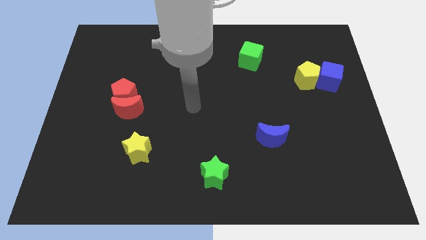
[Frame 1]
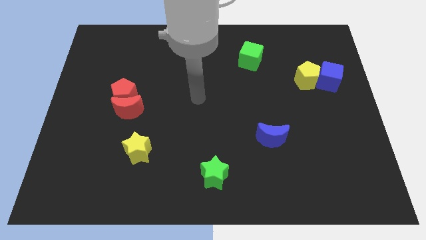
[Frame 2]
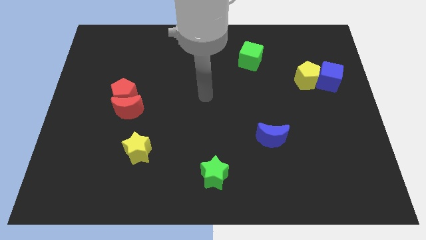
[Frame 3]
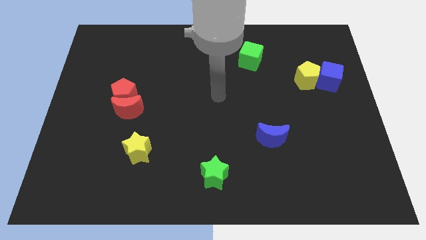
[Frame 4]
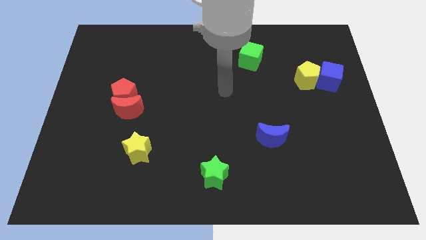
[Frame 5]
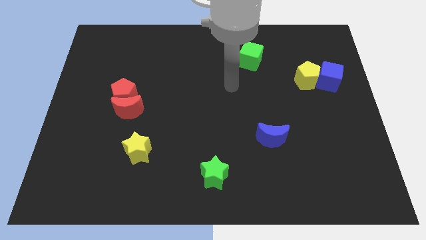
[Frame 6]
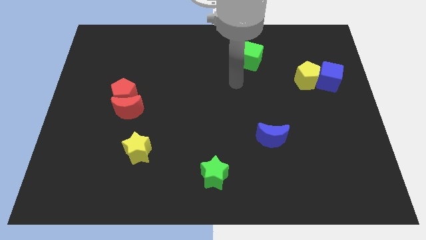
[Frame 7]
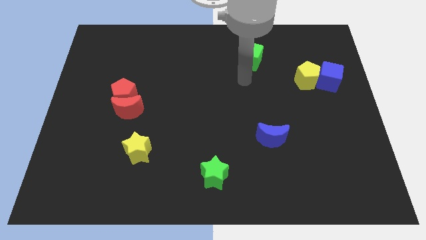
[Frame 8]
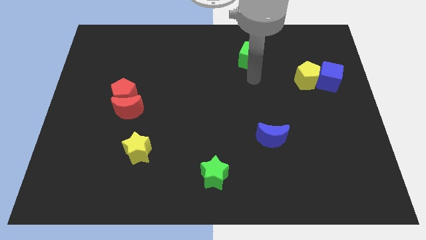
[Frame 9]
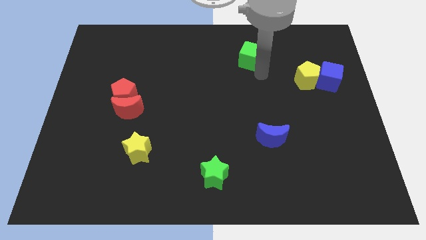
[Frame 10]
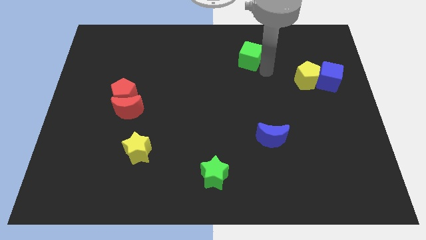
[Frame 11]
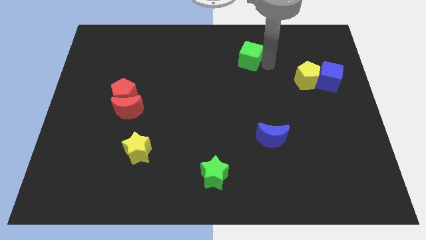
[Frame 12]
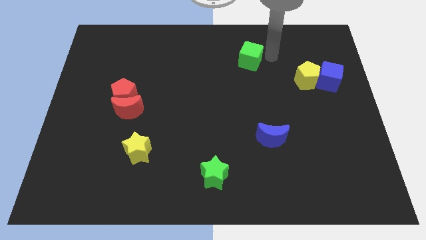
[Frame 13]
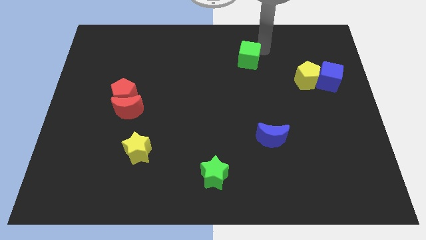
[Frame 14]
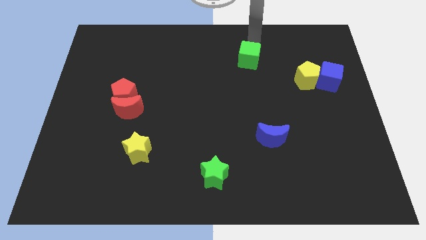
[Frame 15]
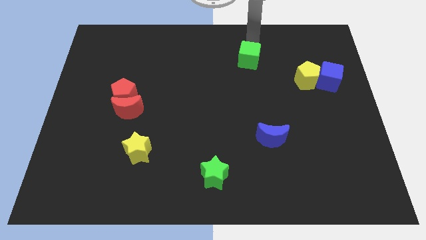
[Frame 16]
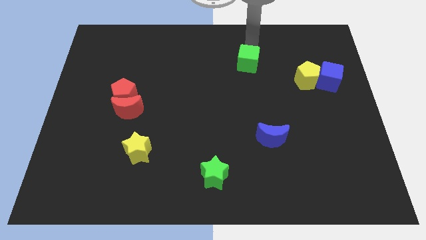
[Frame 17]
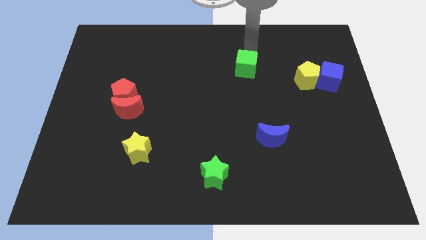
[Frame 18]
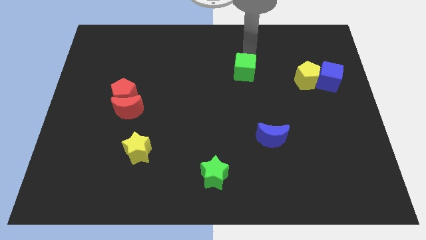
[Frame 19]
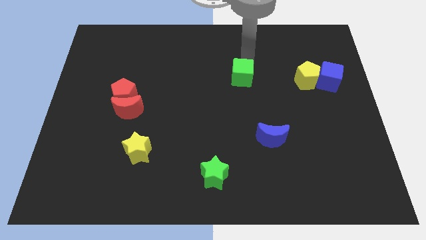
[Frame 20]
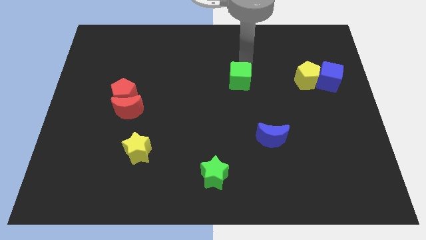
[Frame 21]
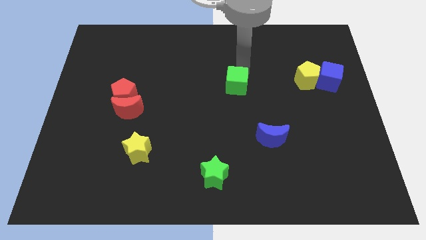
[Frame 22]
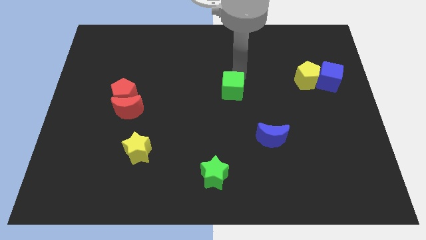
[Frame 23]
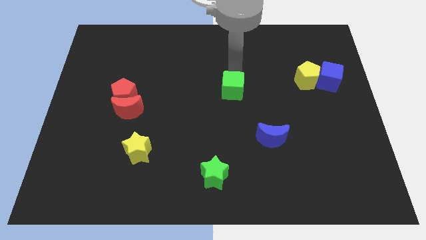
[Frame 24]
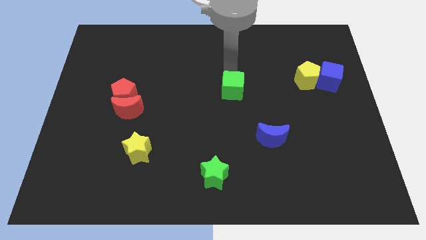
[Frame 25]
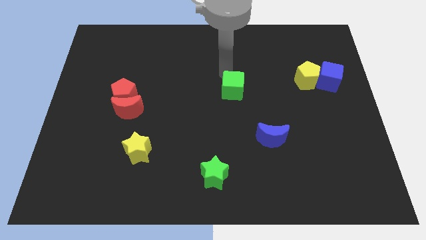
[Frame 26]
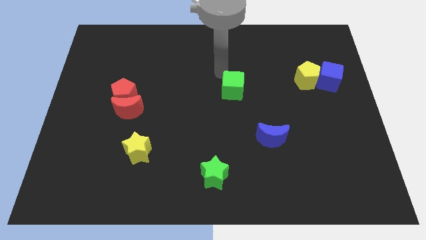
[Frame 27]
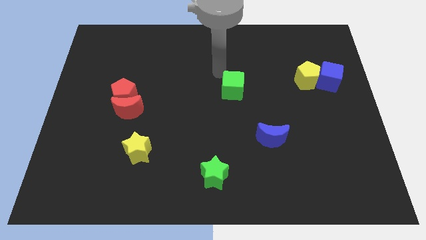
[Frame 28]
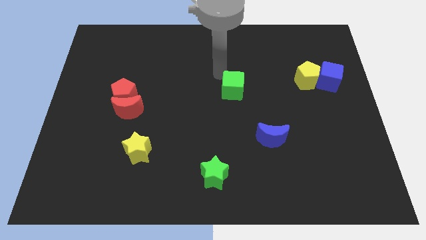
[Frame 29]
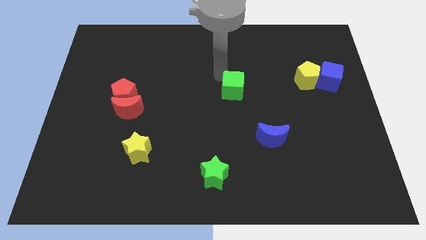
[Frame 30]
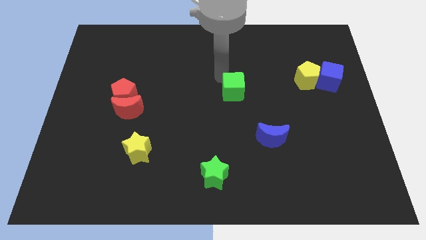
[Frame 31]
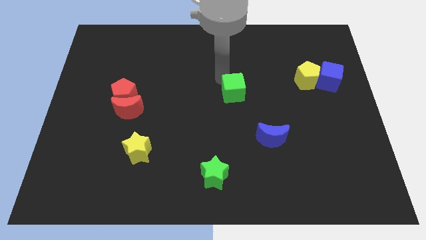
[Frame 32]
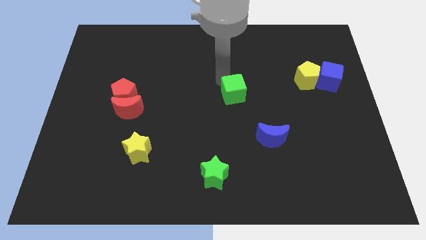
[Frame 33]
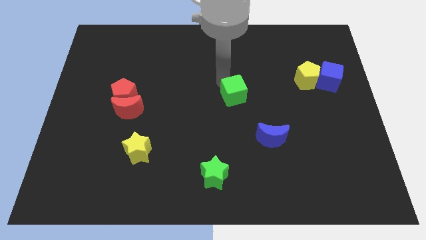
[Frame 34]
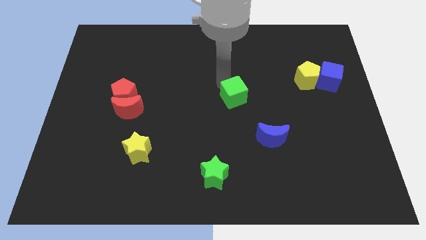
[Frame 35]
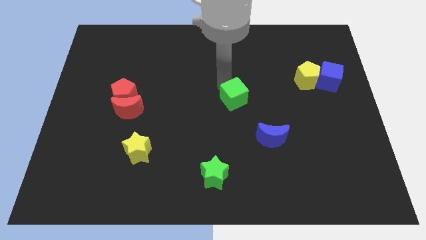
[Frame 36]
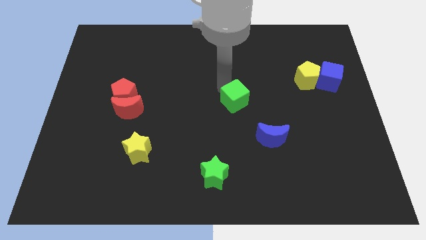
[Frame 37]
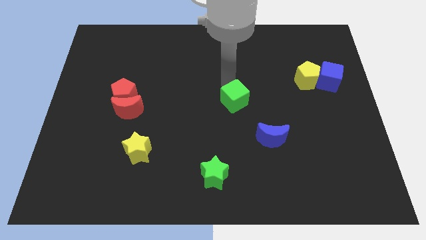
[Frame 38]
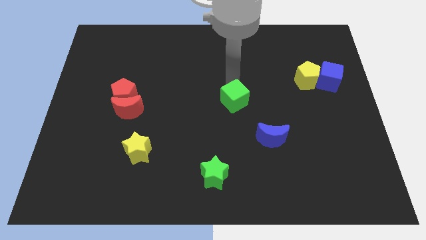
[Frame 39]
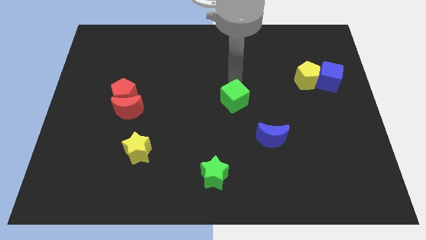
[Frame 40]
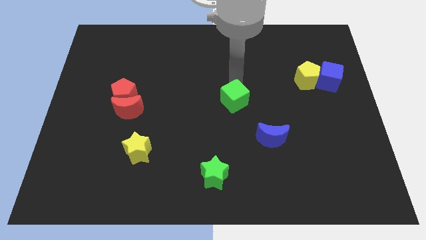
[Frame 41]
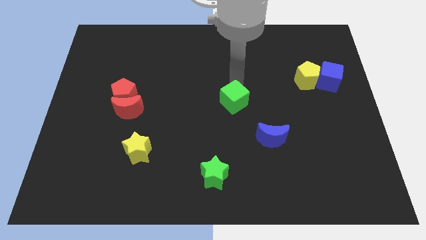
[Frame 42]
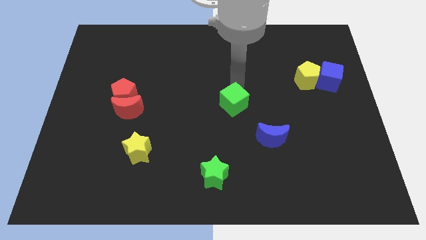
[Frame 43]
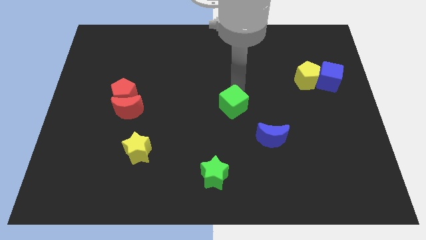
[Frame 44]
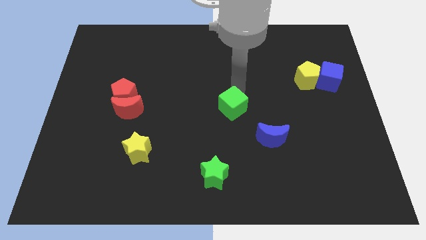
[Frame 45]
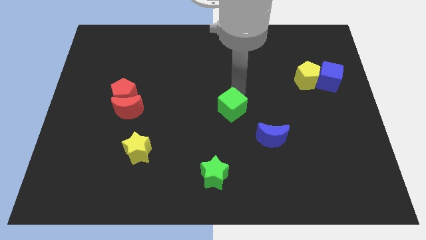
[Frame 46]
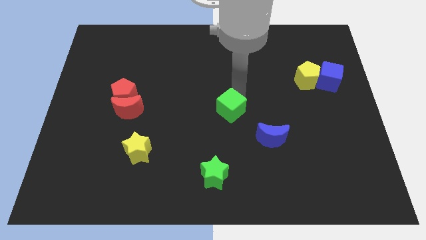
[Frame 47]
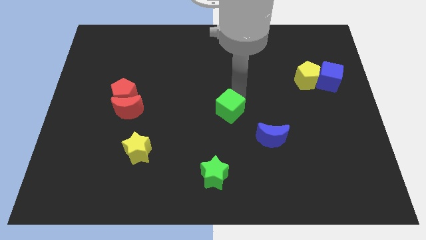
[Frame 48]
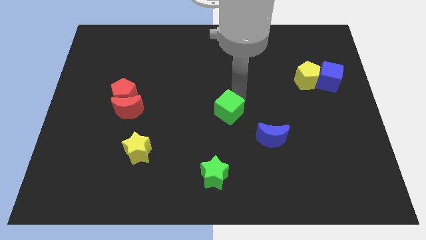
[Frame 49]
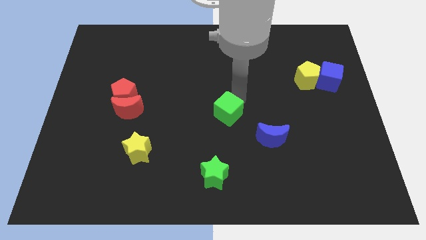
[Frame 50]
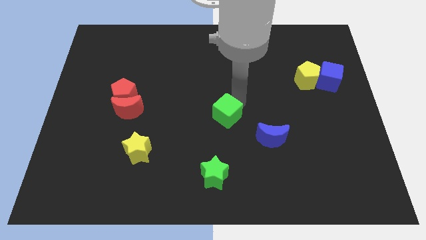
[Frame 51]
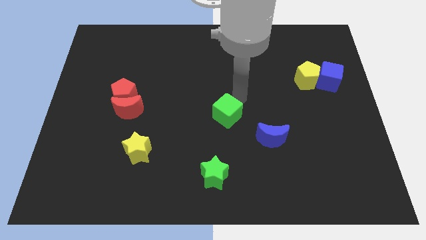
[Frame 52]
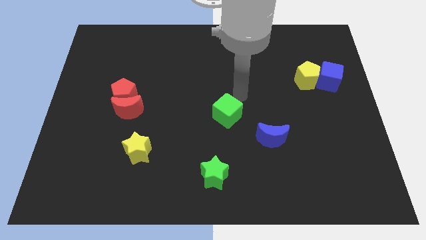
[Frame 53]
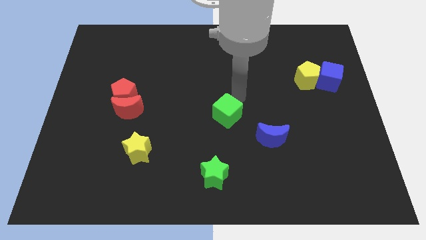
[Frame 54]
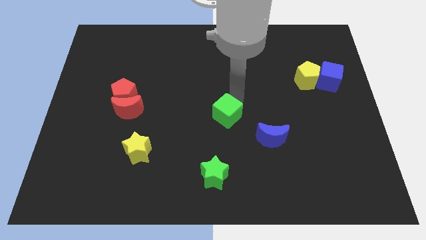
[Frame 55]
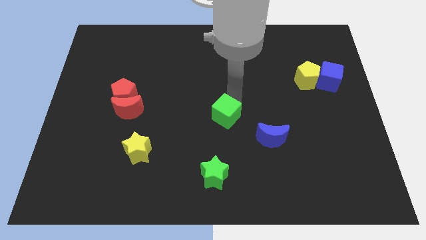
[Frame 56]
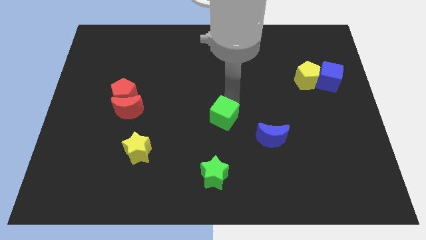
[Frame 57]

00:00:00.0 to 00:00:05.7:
put the green cube to the top side of the green star

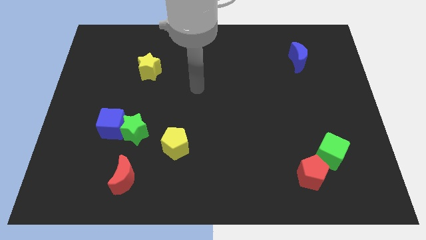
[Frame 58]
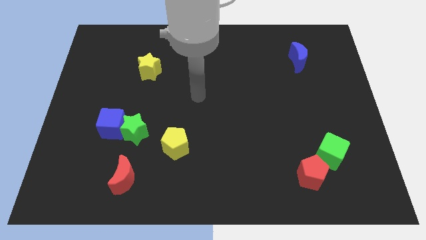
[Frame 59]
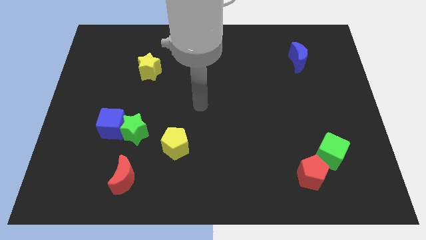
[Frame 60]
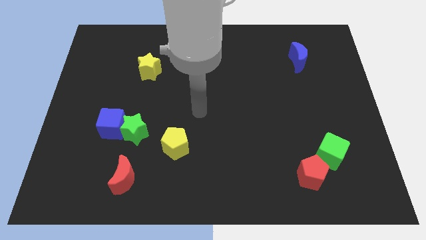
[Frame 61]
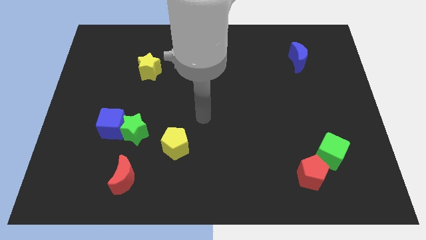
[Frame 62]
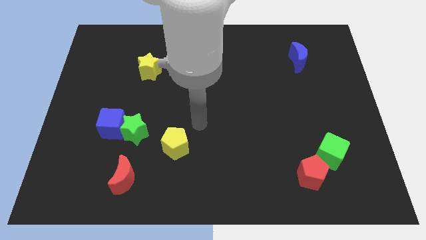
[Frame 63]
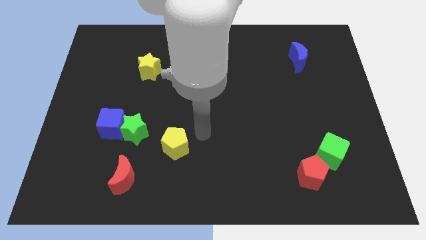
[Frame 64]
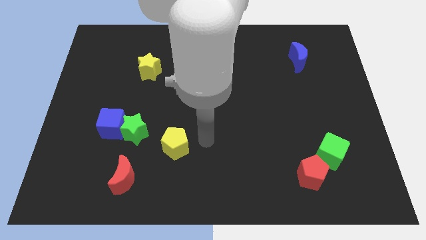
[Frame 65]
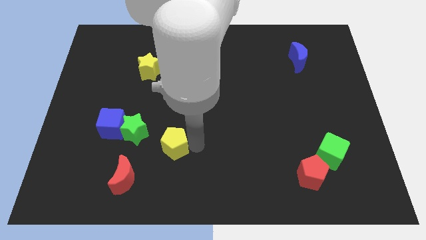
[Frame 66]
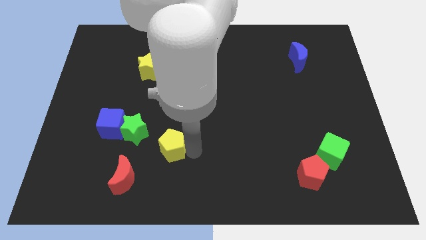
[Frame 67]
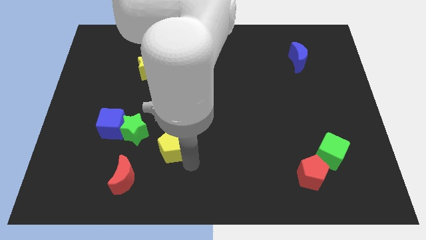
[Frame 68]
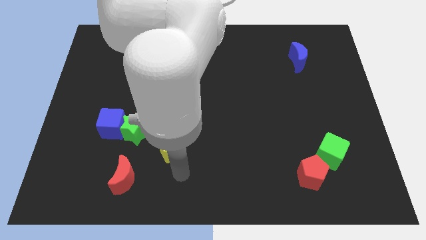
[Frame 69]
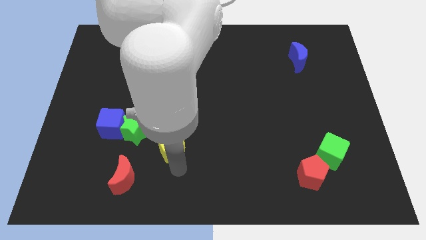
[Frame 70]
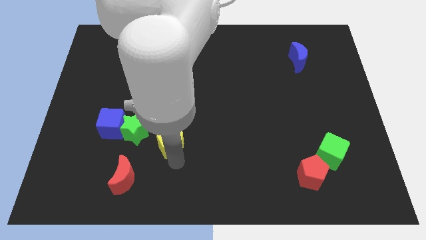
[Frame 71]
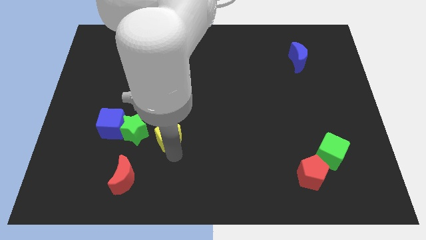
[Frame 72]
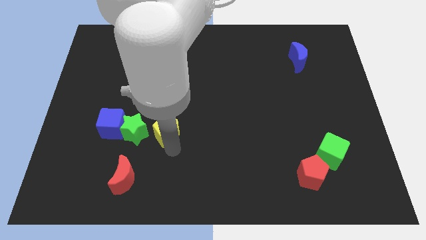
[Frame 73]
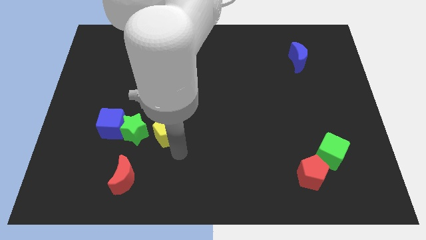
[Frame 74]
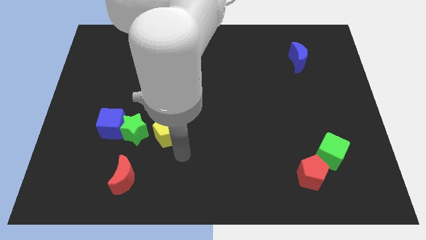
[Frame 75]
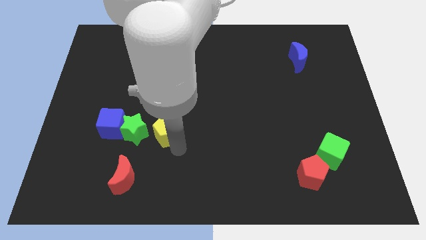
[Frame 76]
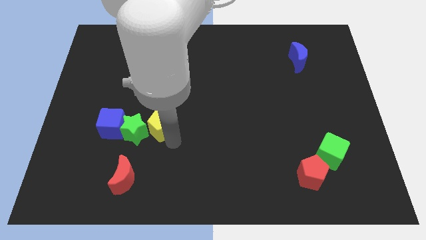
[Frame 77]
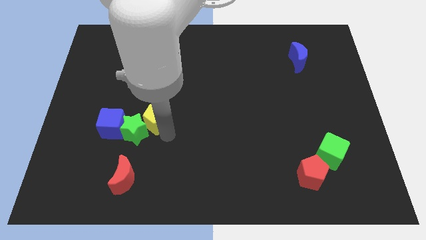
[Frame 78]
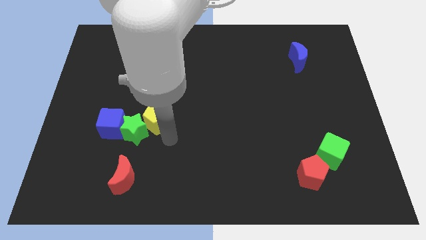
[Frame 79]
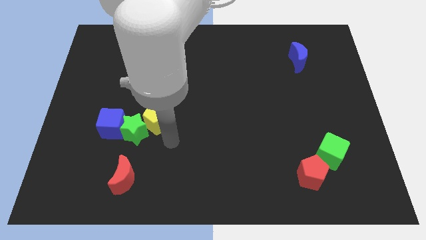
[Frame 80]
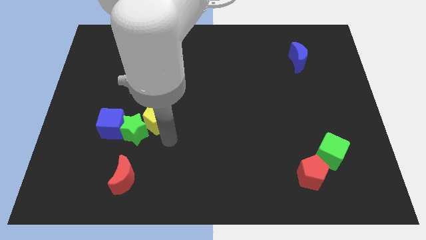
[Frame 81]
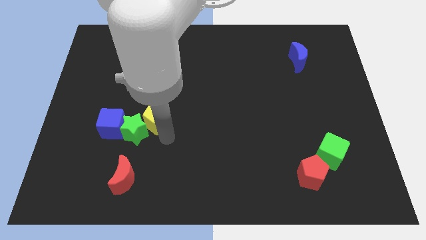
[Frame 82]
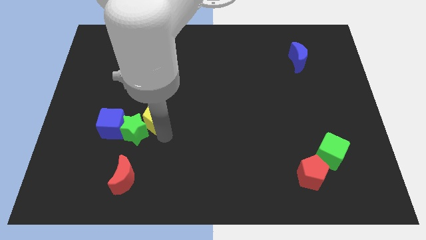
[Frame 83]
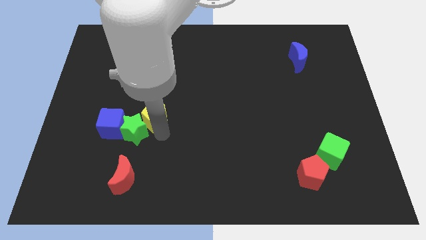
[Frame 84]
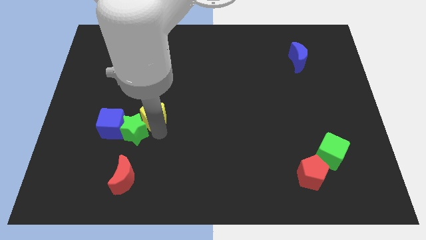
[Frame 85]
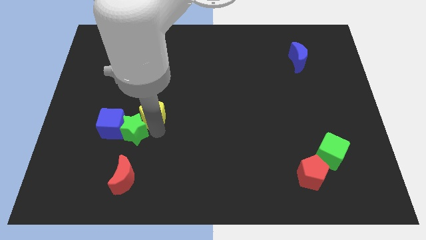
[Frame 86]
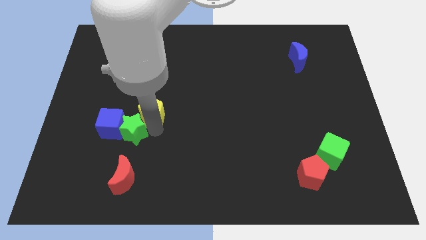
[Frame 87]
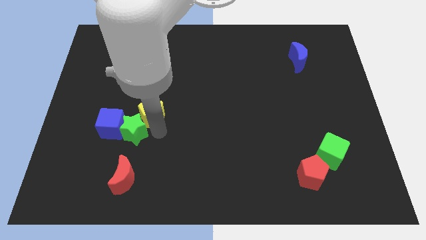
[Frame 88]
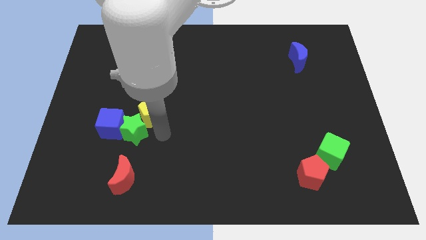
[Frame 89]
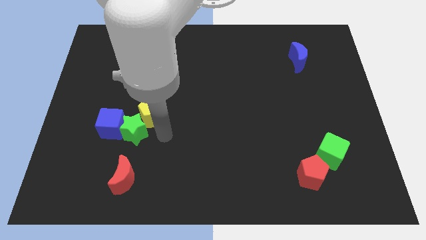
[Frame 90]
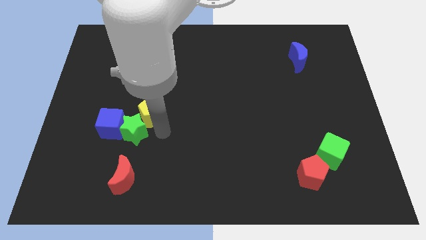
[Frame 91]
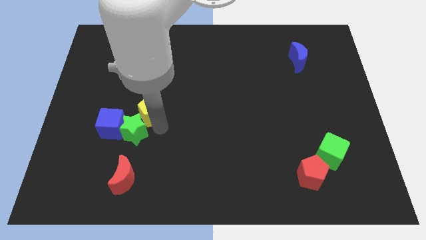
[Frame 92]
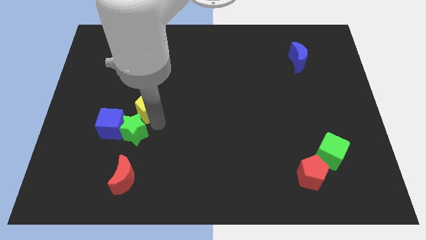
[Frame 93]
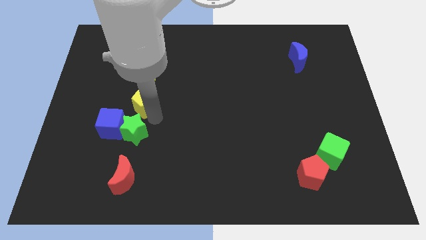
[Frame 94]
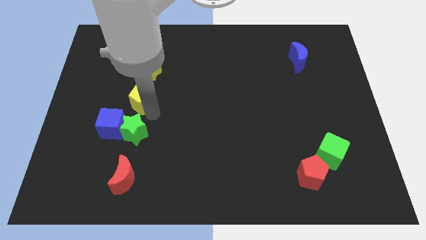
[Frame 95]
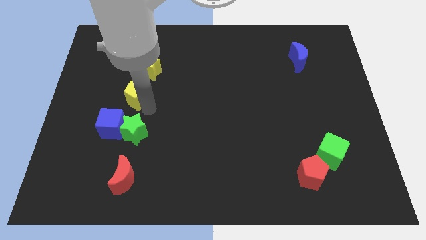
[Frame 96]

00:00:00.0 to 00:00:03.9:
move the yellow pentagon diagonally down and to the left of the yellow star
